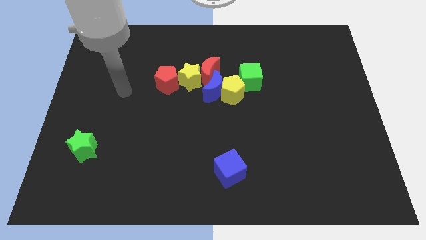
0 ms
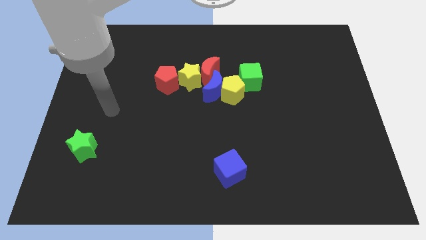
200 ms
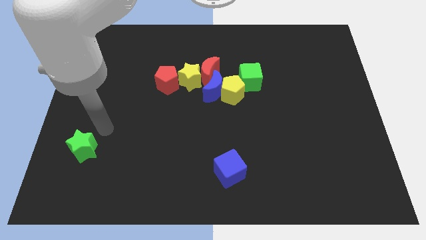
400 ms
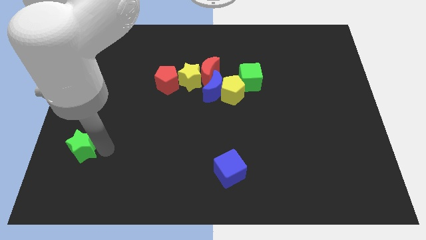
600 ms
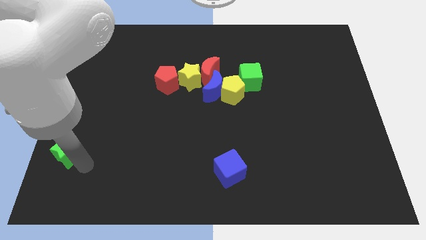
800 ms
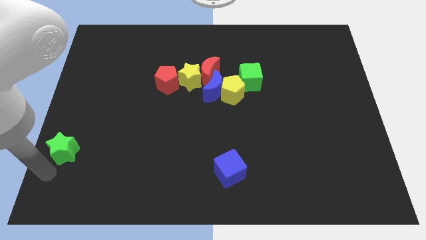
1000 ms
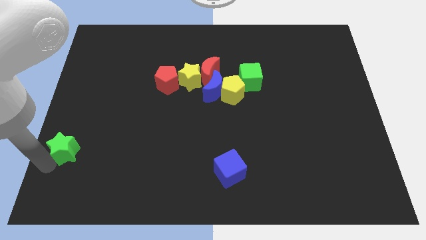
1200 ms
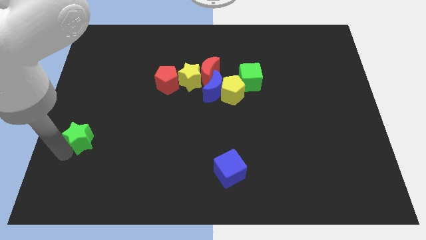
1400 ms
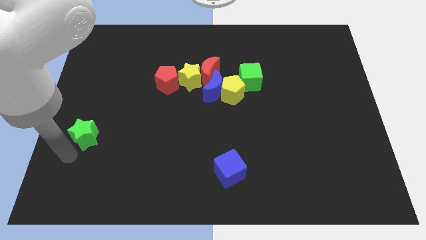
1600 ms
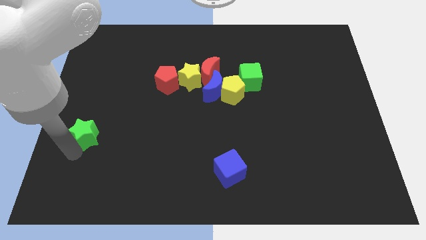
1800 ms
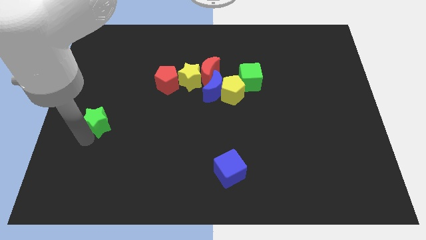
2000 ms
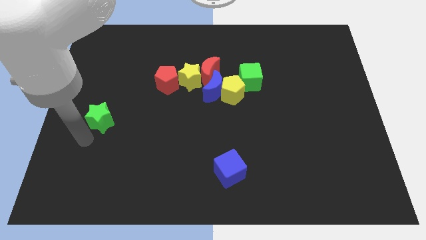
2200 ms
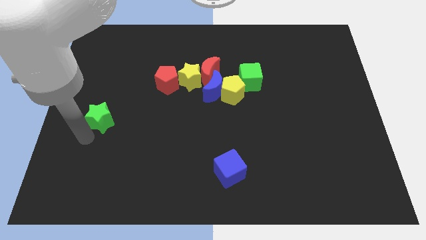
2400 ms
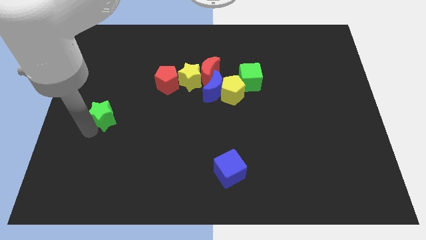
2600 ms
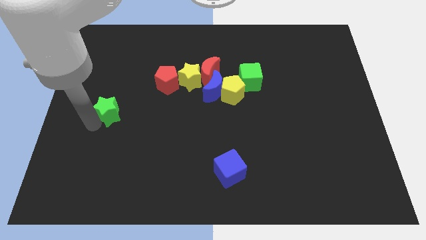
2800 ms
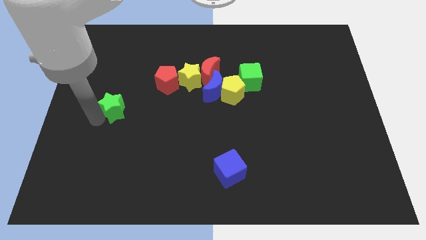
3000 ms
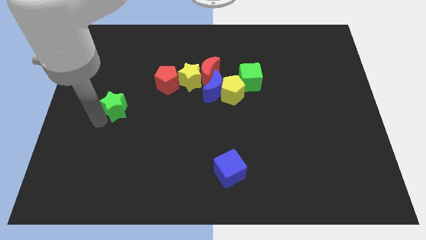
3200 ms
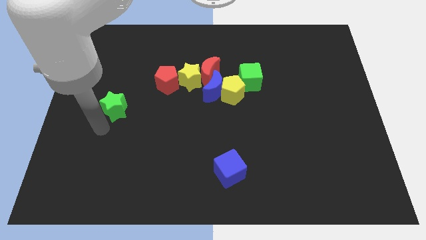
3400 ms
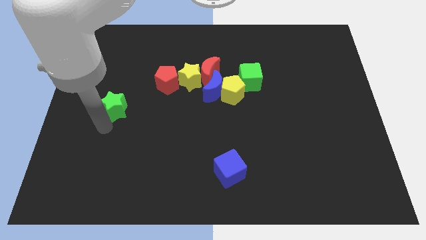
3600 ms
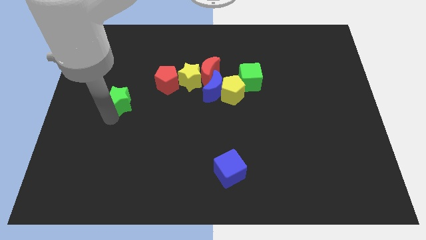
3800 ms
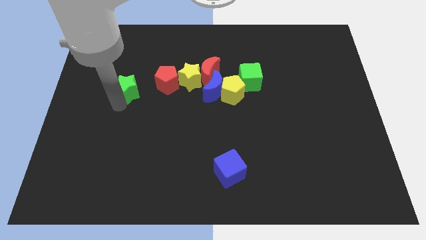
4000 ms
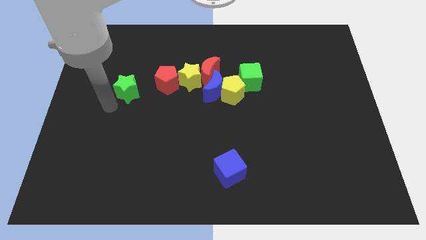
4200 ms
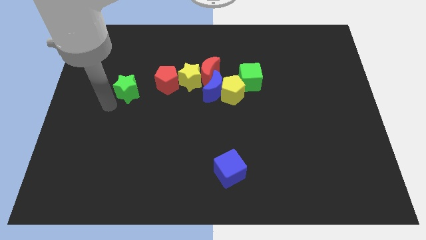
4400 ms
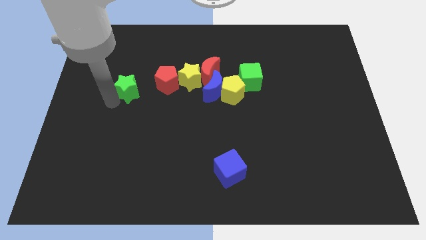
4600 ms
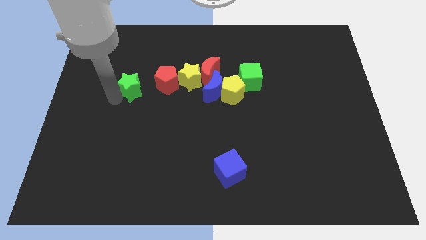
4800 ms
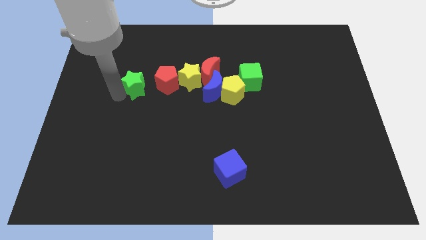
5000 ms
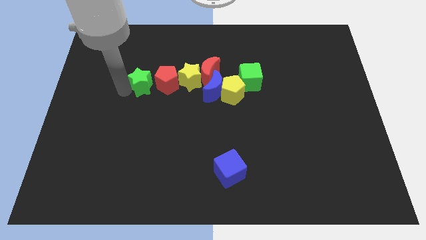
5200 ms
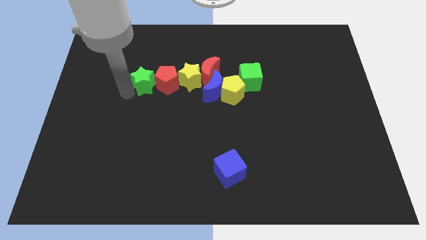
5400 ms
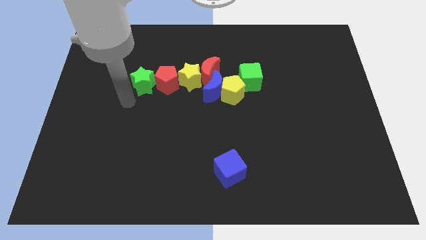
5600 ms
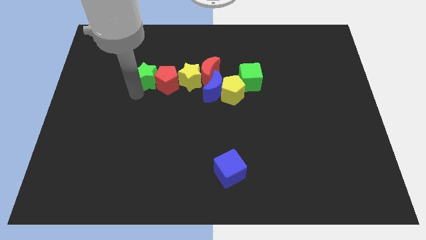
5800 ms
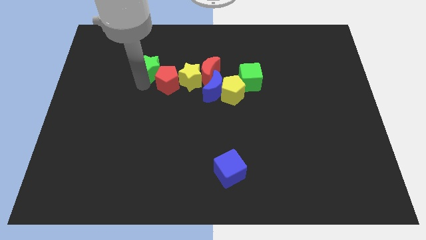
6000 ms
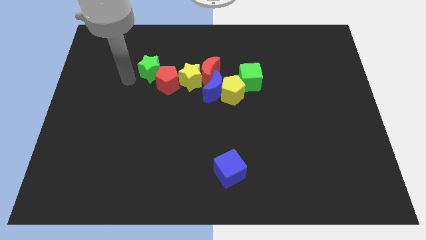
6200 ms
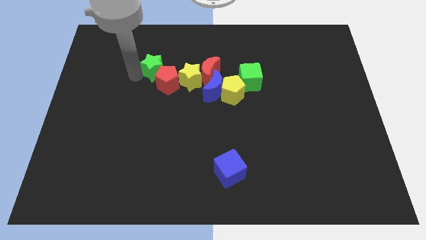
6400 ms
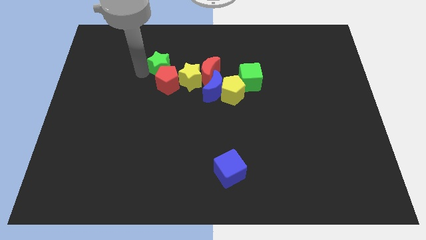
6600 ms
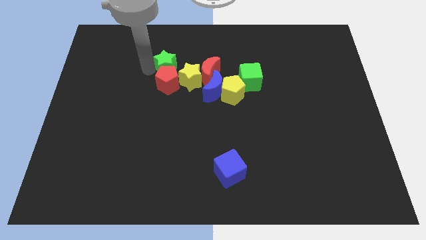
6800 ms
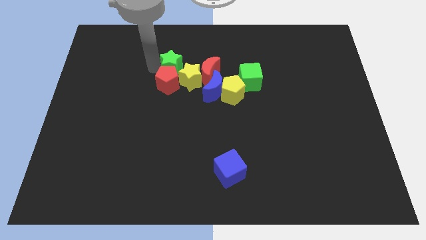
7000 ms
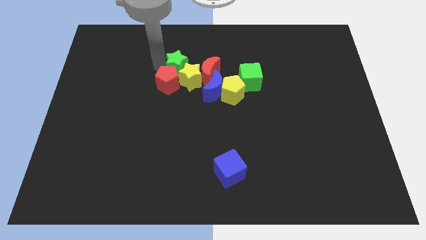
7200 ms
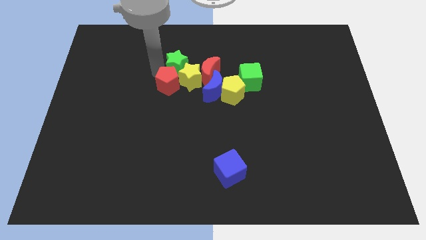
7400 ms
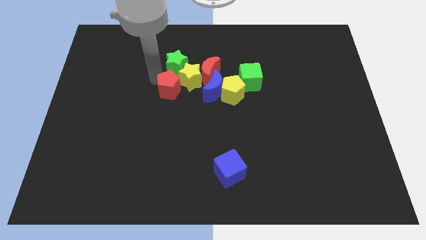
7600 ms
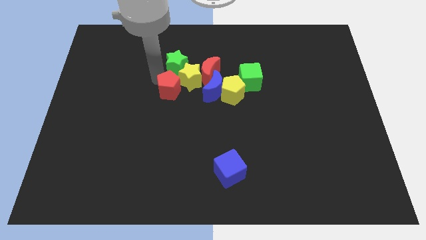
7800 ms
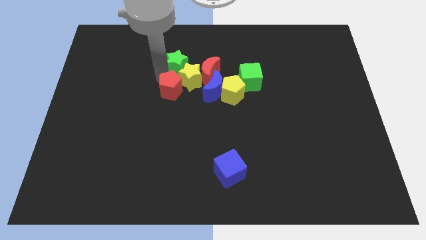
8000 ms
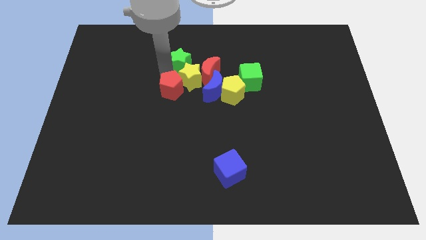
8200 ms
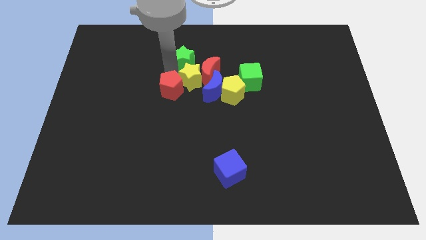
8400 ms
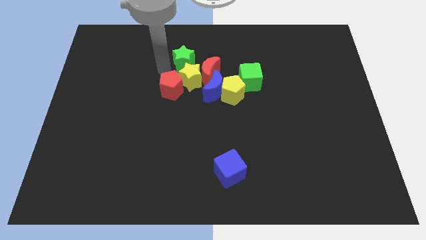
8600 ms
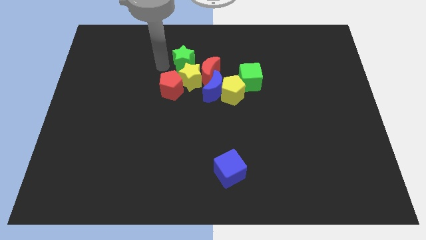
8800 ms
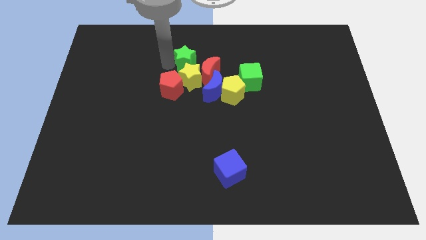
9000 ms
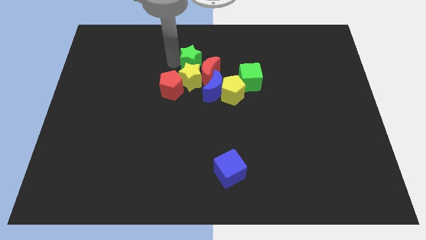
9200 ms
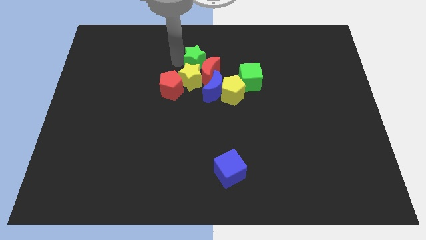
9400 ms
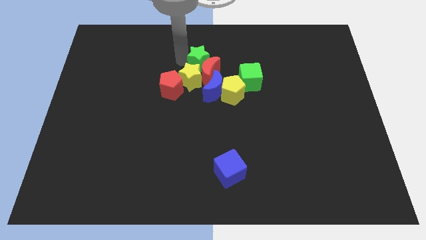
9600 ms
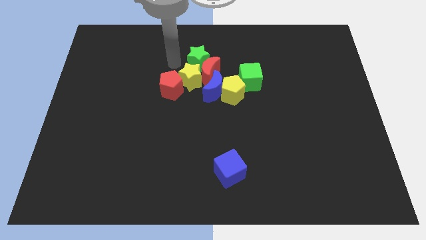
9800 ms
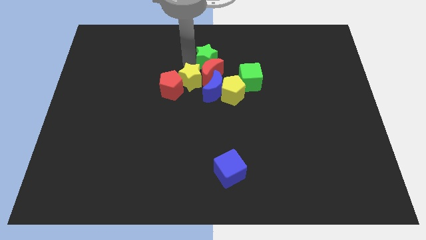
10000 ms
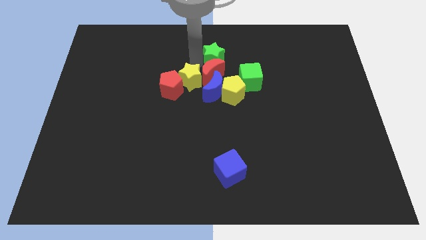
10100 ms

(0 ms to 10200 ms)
push the green star to the top side of the yellow pentagon

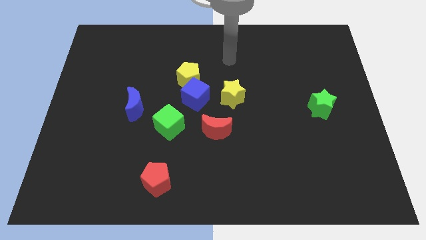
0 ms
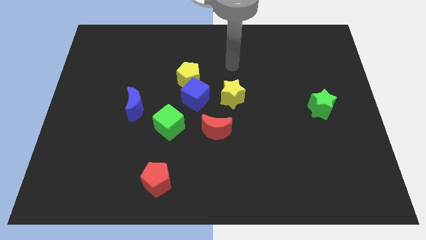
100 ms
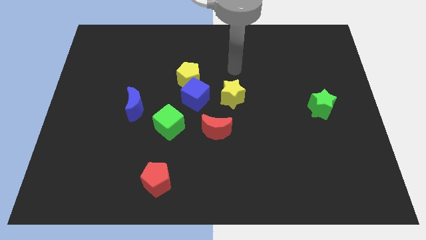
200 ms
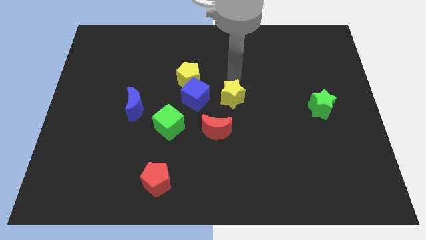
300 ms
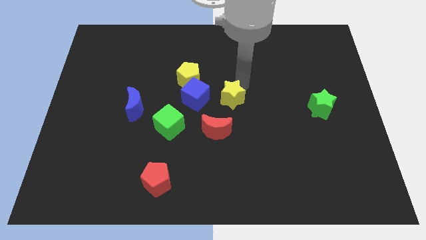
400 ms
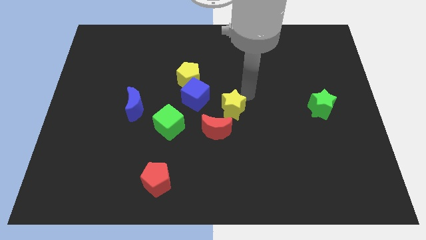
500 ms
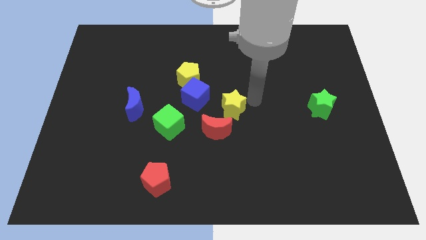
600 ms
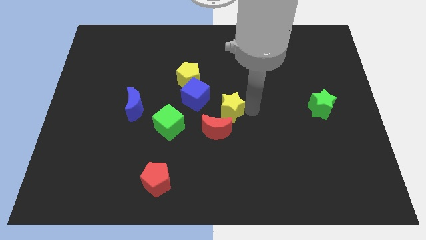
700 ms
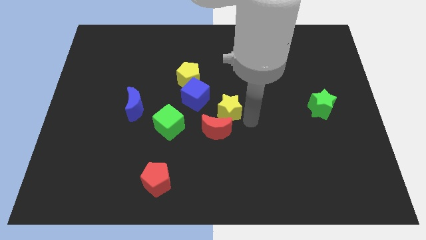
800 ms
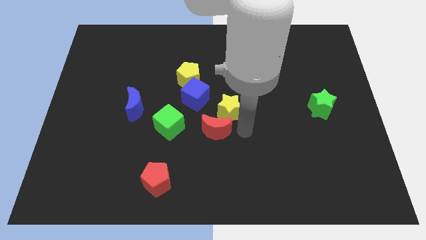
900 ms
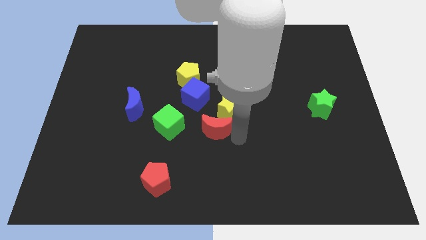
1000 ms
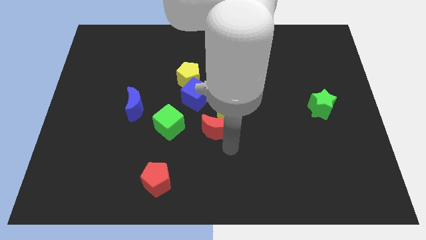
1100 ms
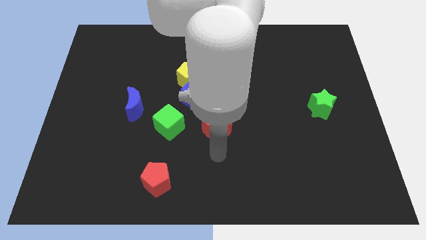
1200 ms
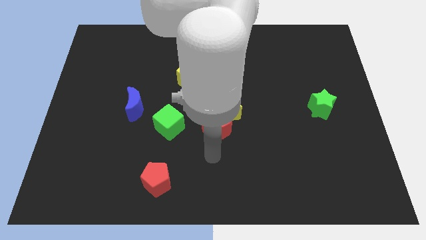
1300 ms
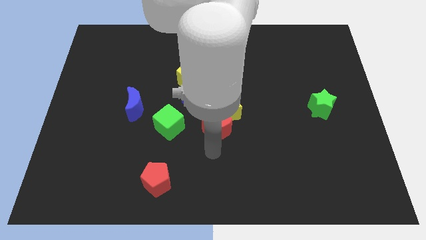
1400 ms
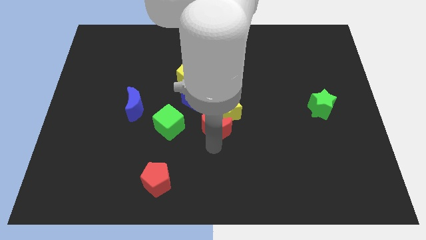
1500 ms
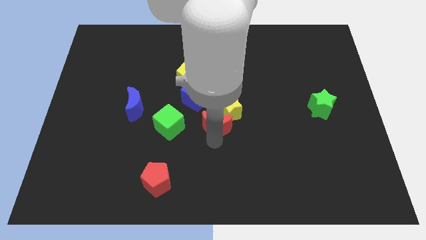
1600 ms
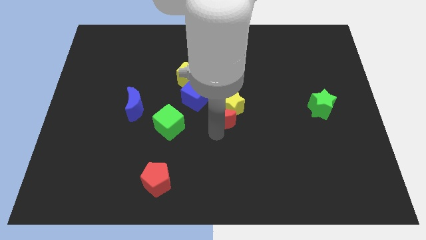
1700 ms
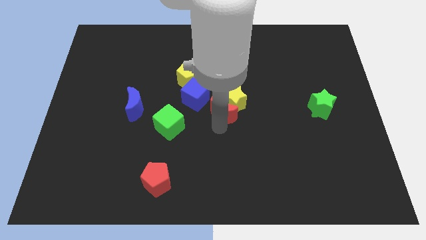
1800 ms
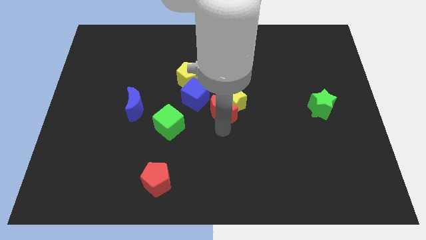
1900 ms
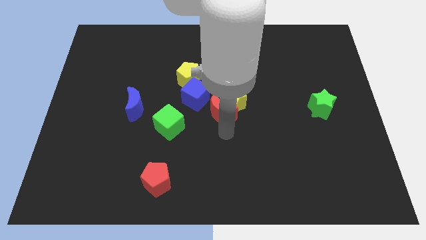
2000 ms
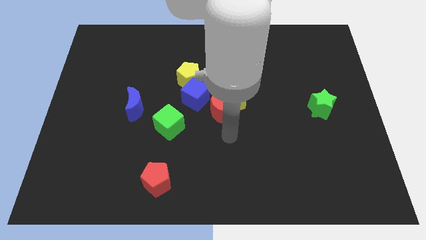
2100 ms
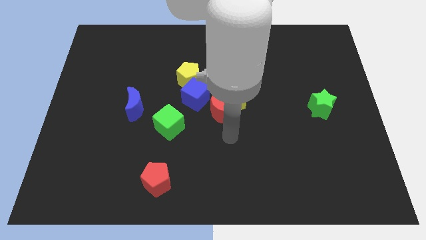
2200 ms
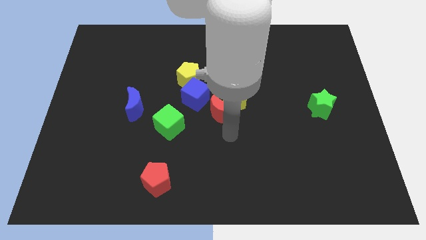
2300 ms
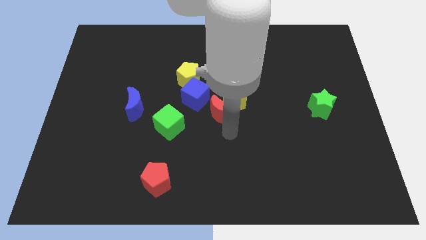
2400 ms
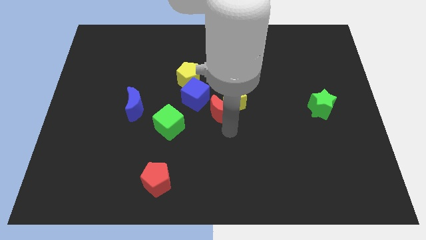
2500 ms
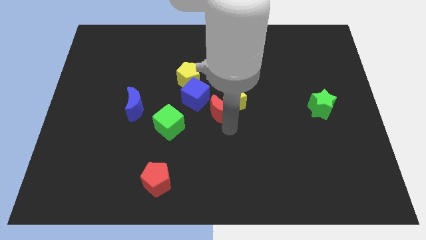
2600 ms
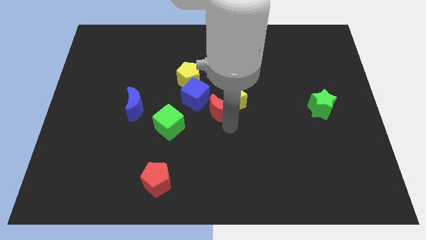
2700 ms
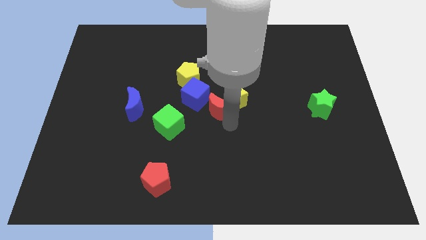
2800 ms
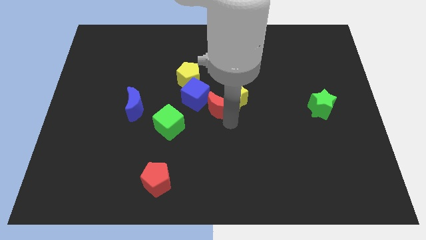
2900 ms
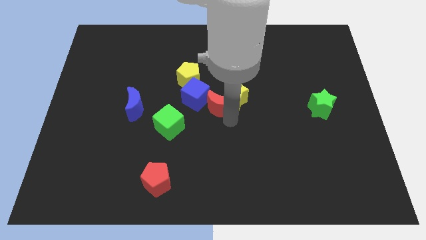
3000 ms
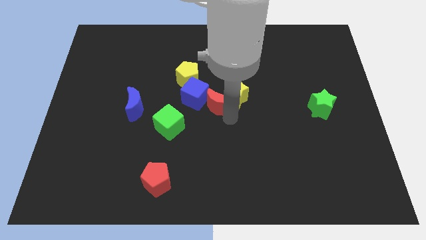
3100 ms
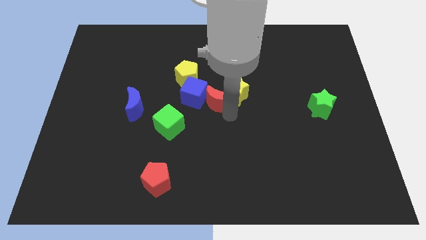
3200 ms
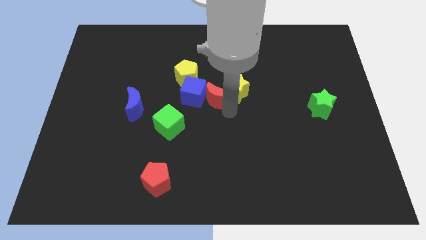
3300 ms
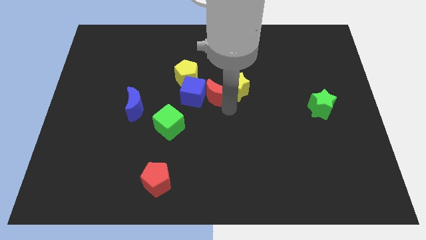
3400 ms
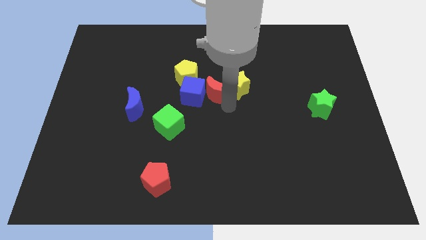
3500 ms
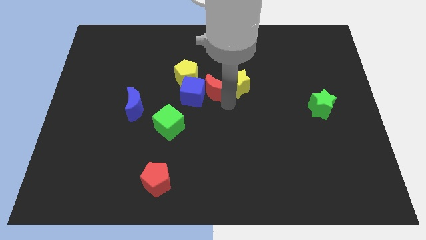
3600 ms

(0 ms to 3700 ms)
put the red moon just right of the yellow pentagon
